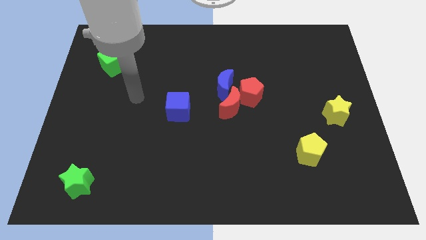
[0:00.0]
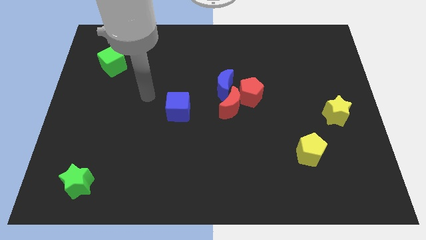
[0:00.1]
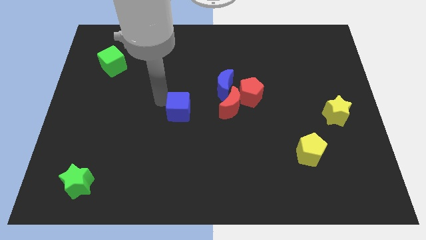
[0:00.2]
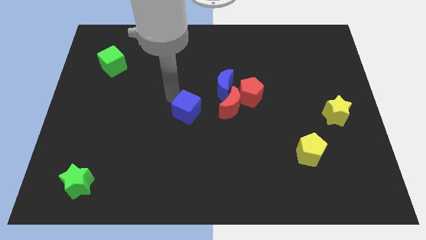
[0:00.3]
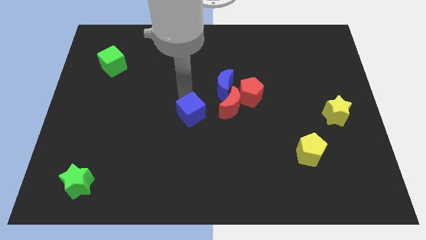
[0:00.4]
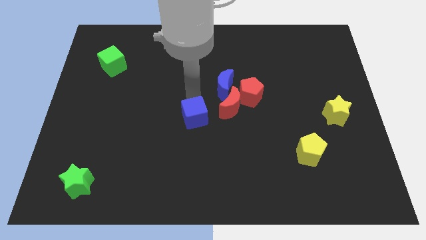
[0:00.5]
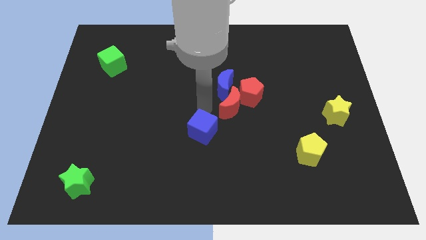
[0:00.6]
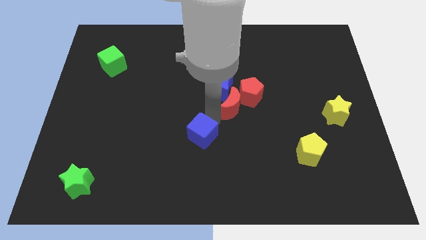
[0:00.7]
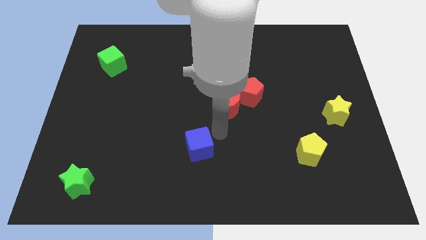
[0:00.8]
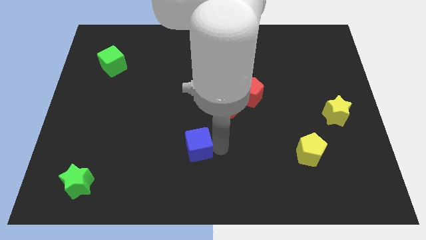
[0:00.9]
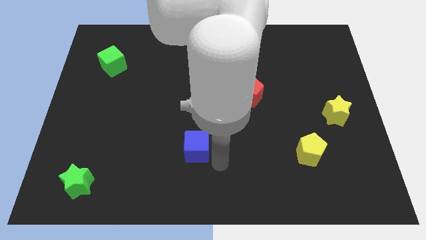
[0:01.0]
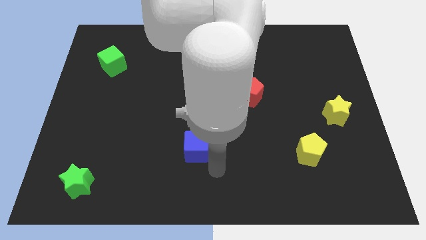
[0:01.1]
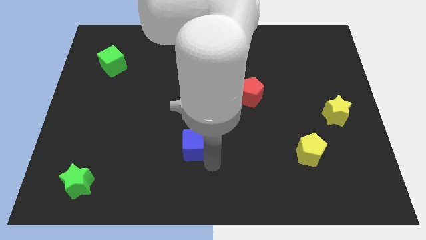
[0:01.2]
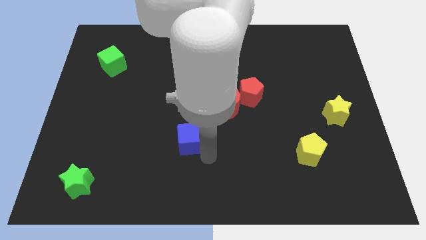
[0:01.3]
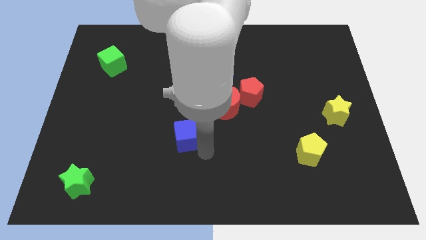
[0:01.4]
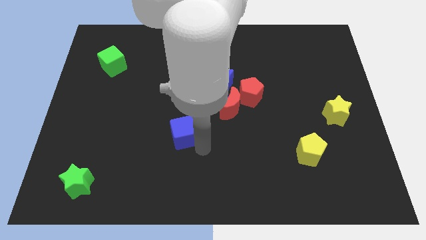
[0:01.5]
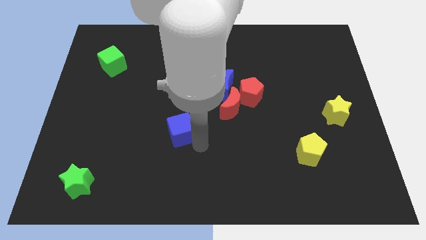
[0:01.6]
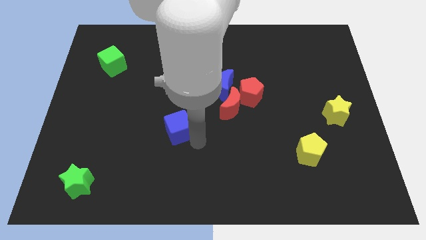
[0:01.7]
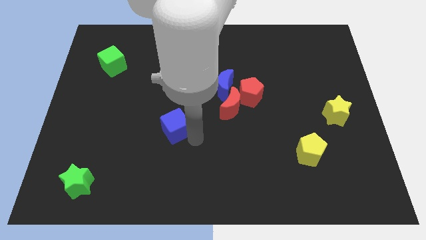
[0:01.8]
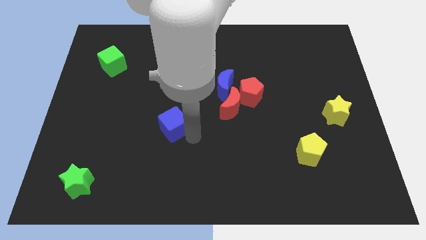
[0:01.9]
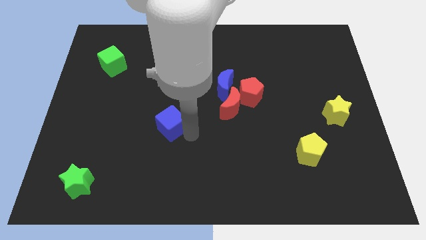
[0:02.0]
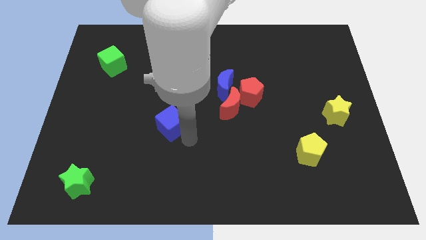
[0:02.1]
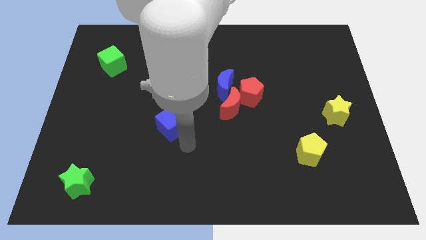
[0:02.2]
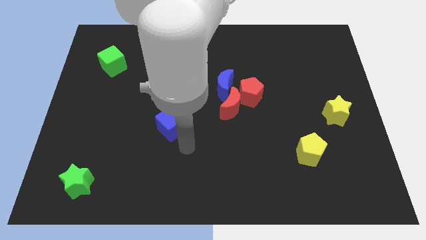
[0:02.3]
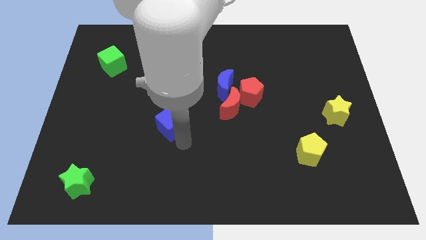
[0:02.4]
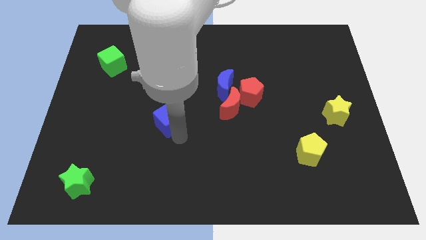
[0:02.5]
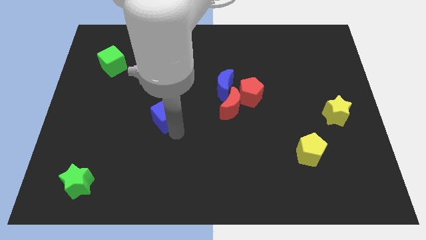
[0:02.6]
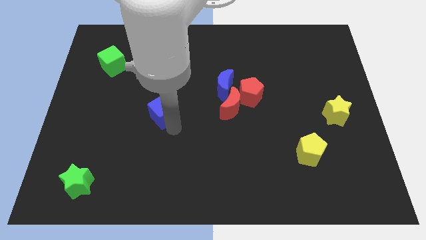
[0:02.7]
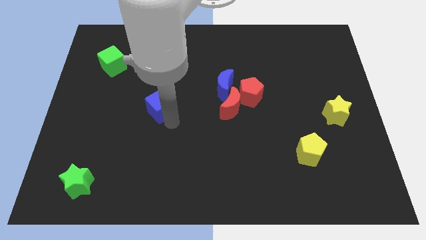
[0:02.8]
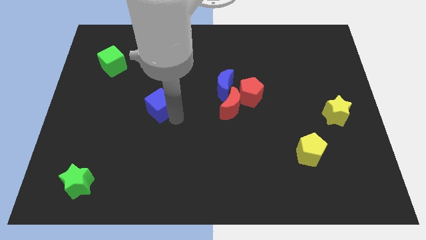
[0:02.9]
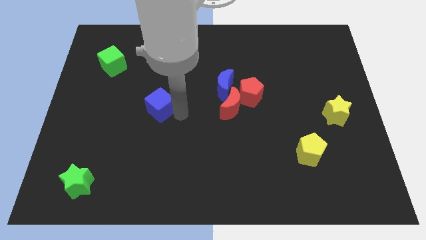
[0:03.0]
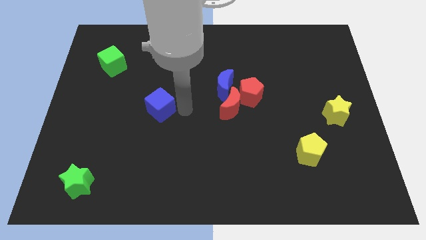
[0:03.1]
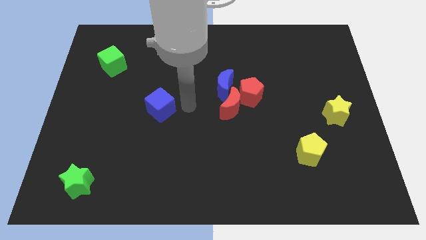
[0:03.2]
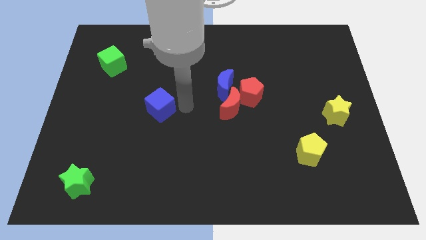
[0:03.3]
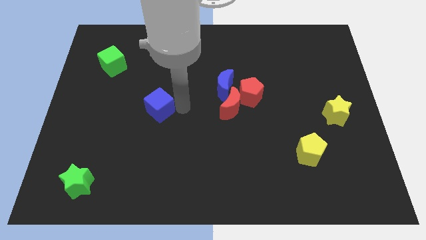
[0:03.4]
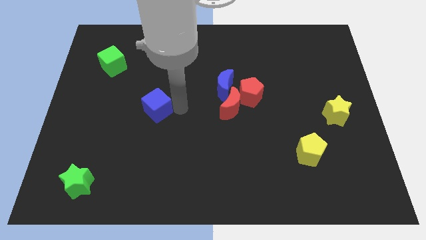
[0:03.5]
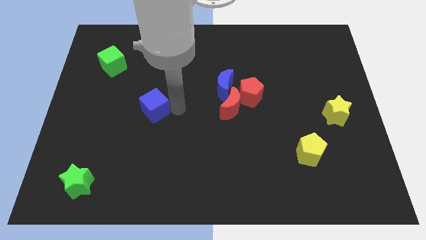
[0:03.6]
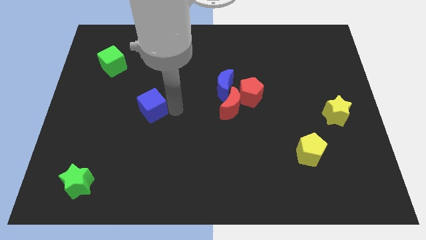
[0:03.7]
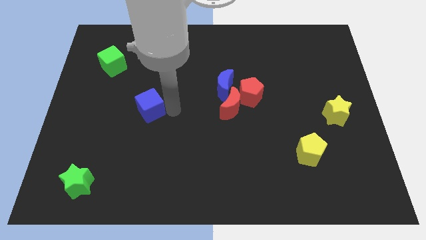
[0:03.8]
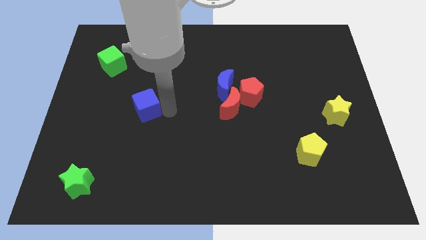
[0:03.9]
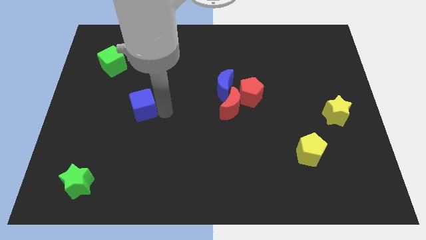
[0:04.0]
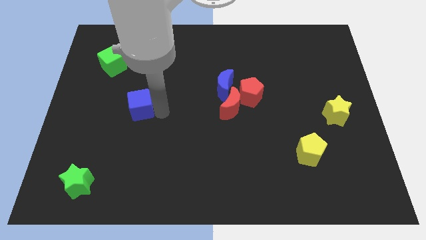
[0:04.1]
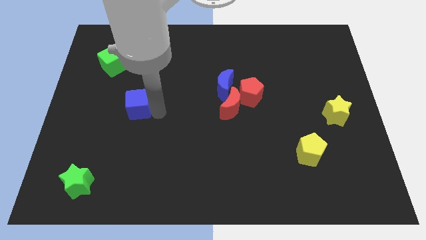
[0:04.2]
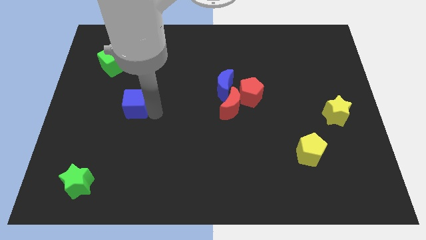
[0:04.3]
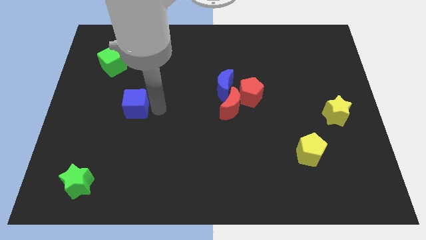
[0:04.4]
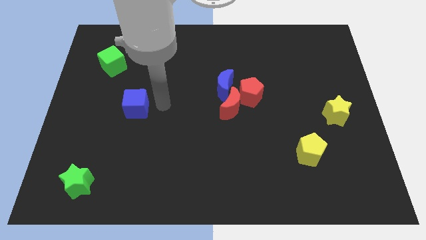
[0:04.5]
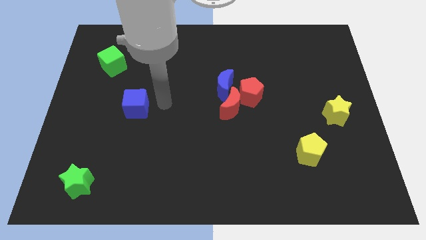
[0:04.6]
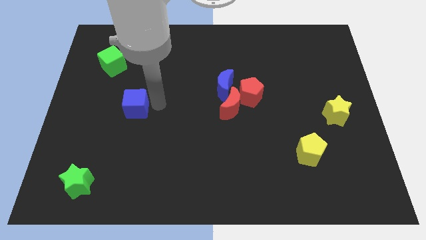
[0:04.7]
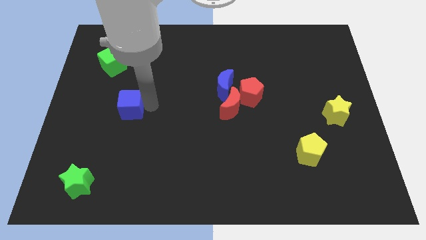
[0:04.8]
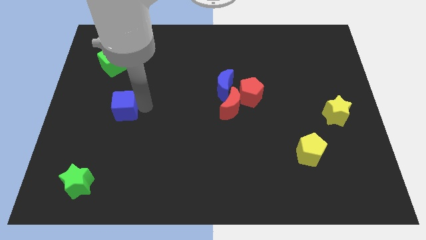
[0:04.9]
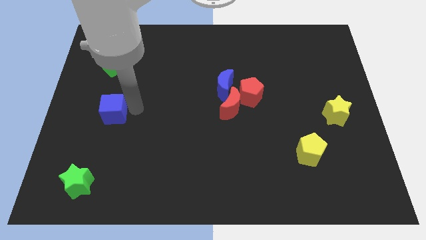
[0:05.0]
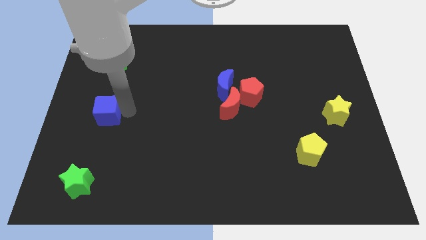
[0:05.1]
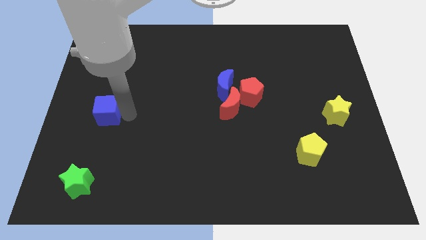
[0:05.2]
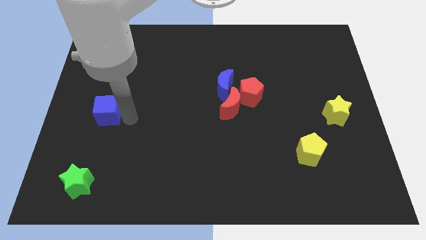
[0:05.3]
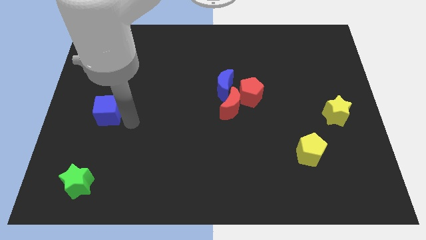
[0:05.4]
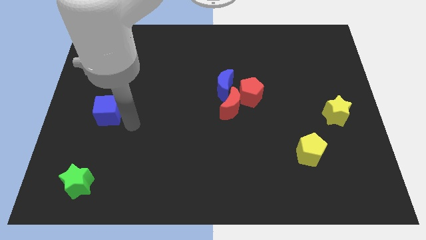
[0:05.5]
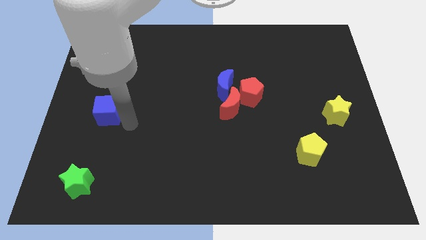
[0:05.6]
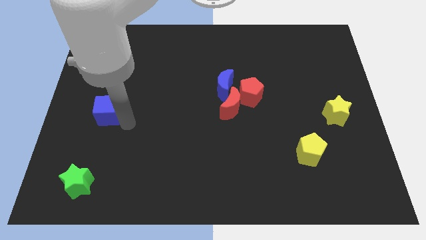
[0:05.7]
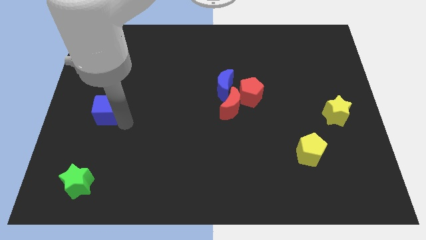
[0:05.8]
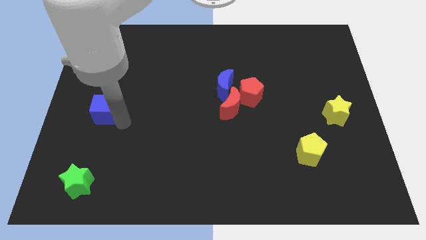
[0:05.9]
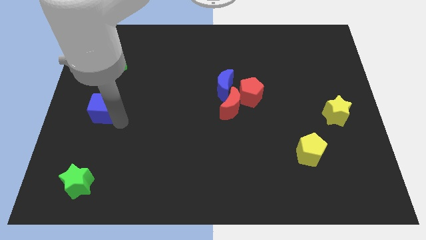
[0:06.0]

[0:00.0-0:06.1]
push the blue cube to the left side

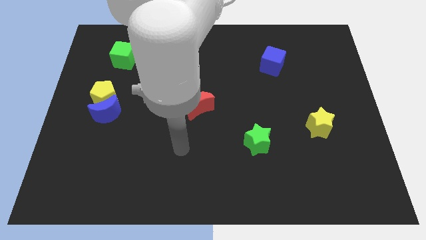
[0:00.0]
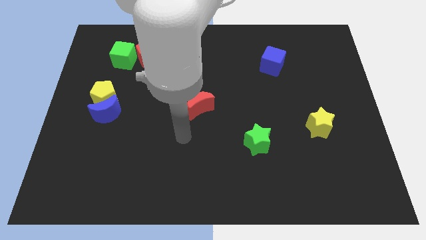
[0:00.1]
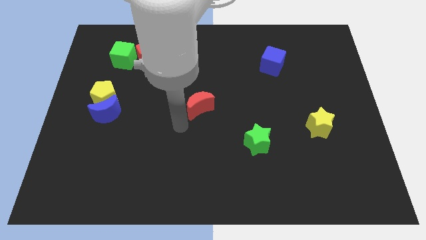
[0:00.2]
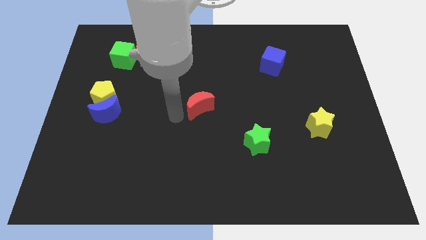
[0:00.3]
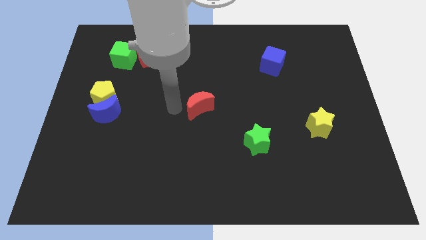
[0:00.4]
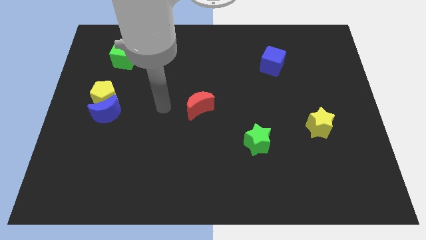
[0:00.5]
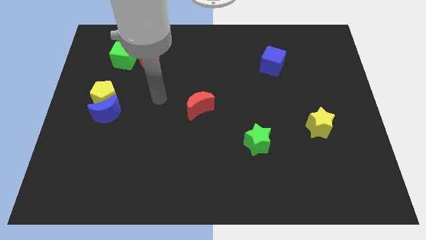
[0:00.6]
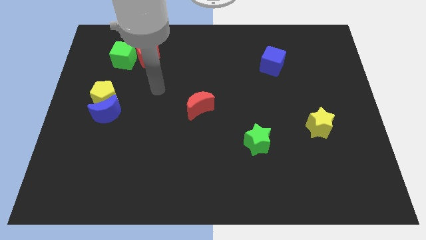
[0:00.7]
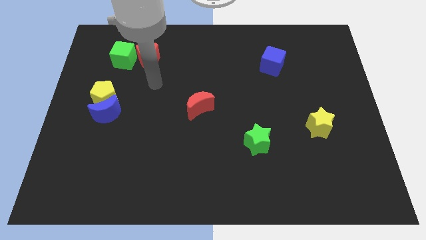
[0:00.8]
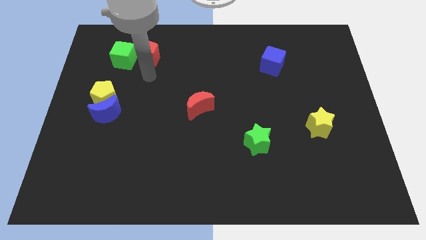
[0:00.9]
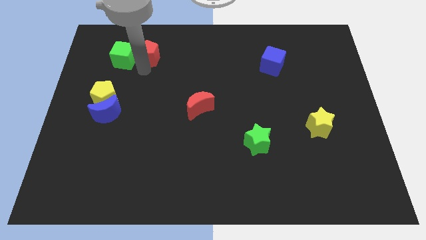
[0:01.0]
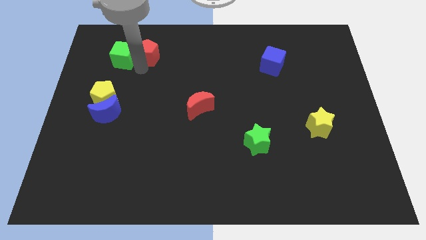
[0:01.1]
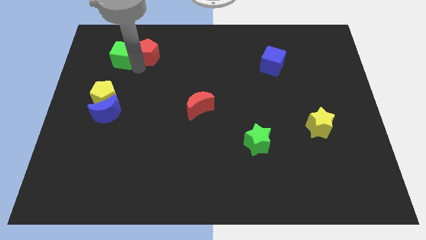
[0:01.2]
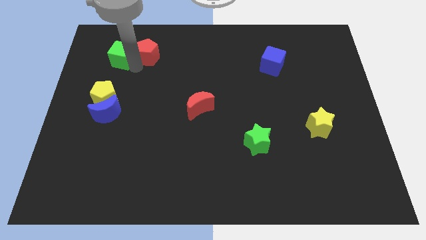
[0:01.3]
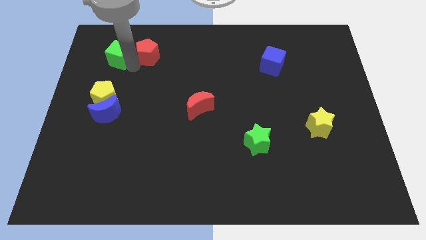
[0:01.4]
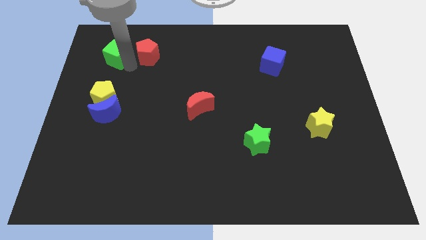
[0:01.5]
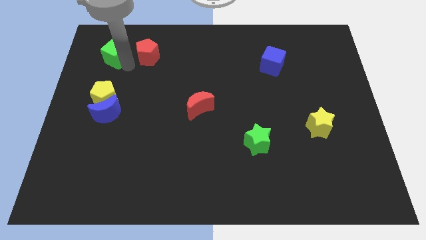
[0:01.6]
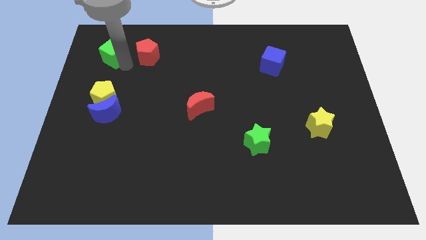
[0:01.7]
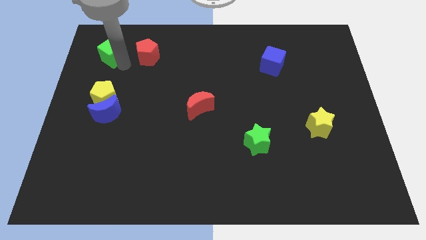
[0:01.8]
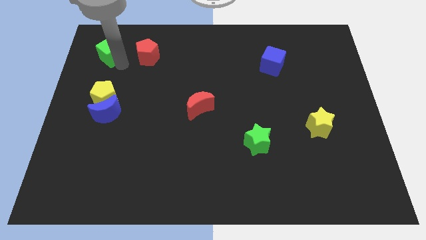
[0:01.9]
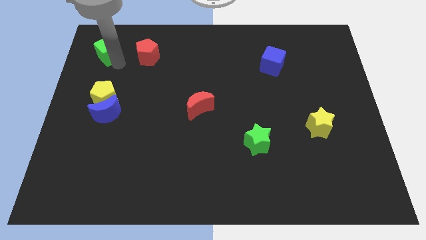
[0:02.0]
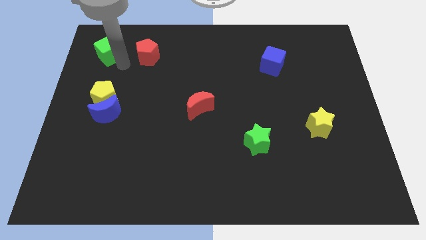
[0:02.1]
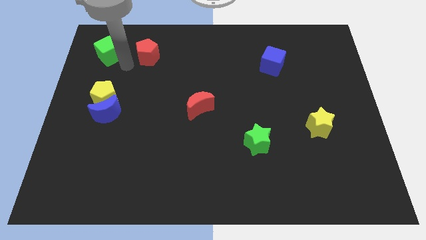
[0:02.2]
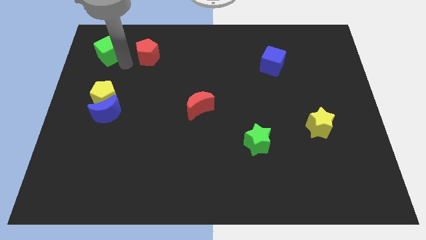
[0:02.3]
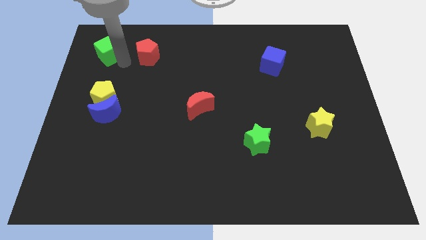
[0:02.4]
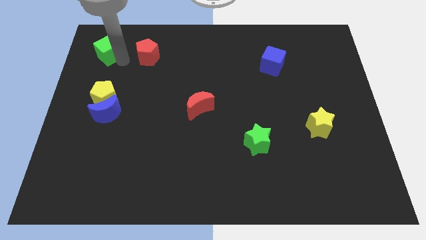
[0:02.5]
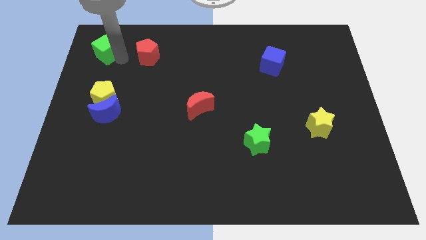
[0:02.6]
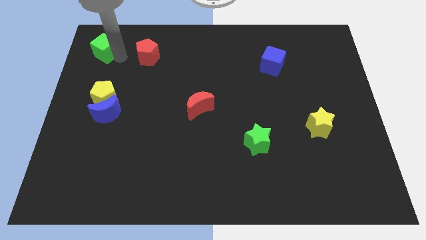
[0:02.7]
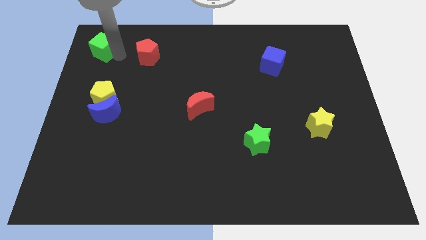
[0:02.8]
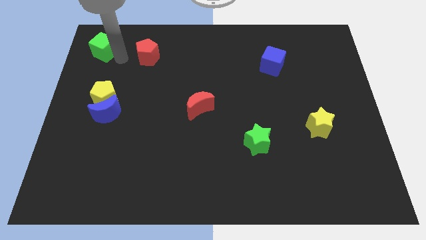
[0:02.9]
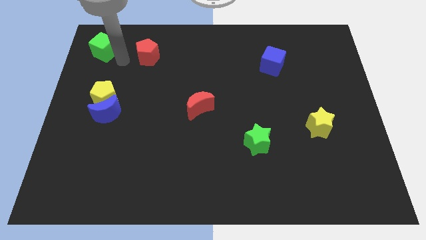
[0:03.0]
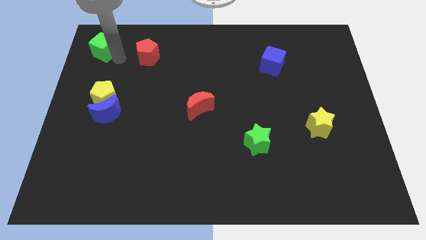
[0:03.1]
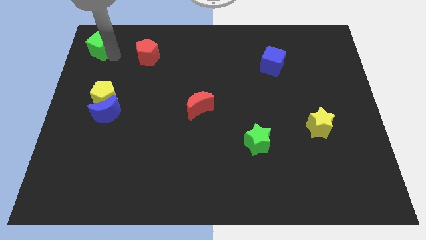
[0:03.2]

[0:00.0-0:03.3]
move the green cube to the top left
